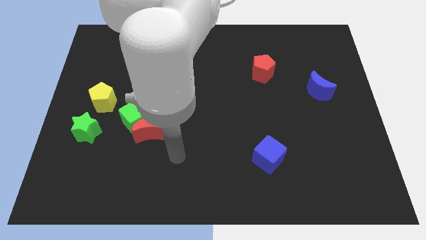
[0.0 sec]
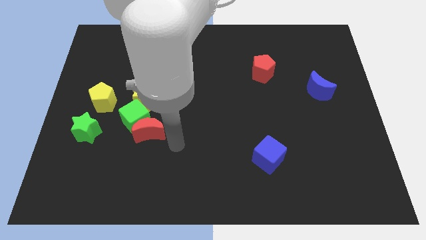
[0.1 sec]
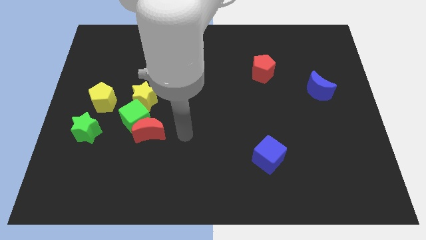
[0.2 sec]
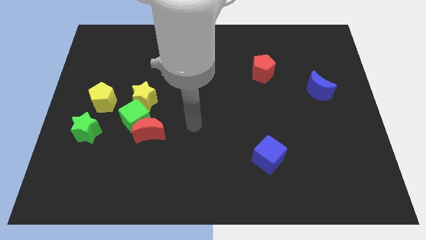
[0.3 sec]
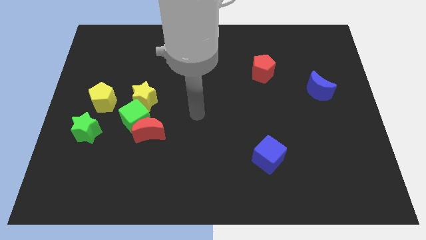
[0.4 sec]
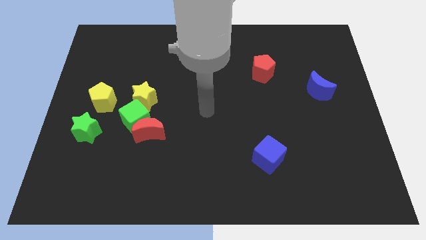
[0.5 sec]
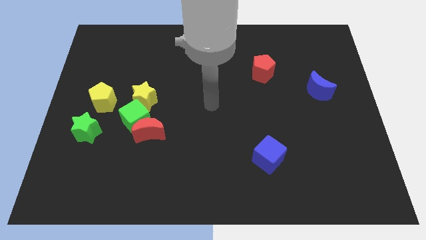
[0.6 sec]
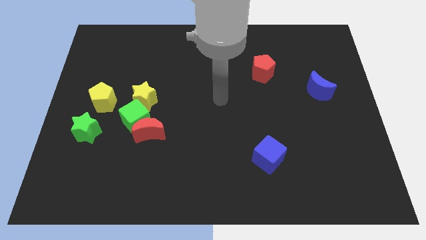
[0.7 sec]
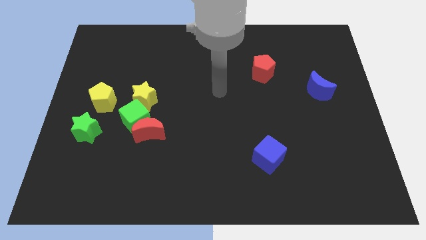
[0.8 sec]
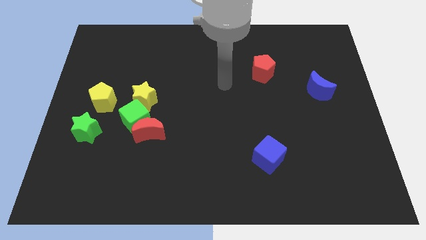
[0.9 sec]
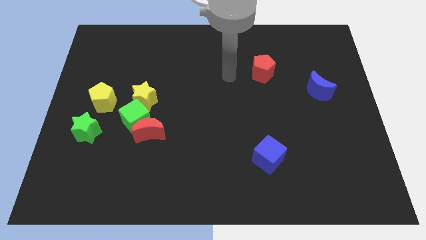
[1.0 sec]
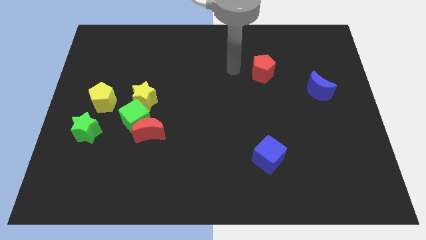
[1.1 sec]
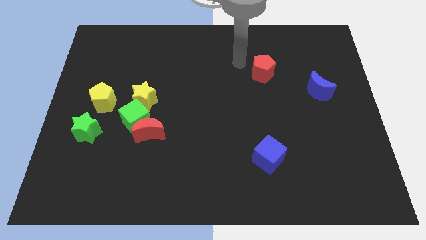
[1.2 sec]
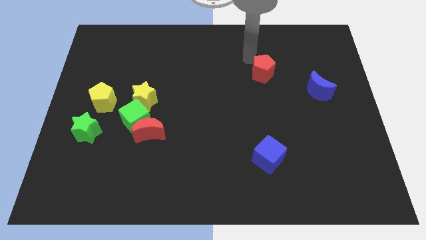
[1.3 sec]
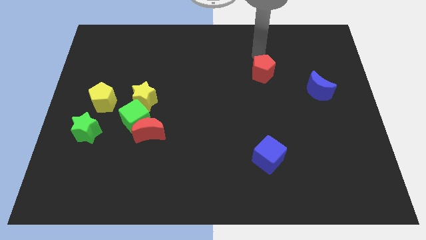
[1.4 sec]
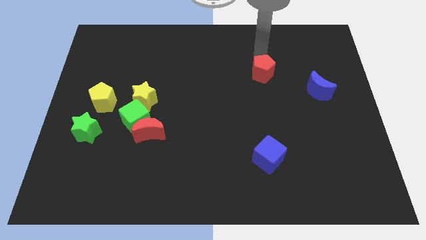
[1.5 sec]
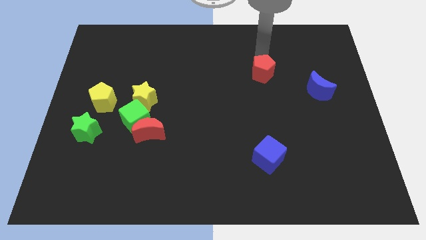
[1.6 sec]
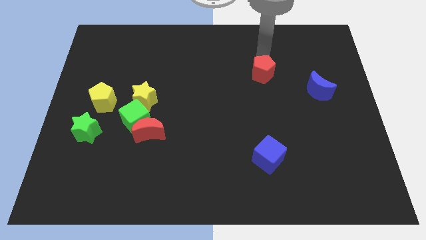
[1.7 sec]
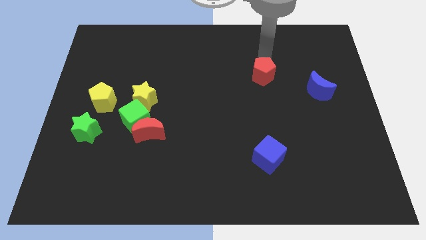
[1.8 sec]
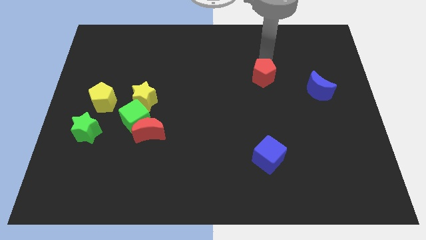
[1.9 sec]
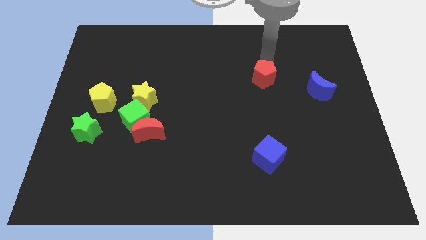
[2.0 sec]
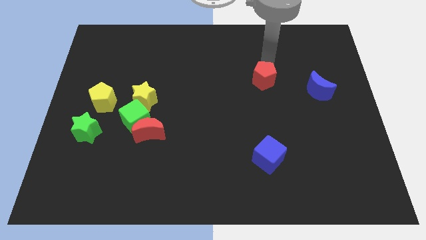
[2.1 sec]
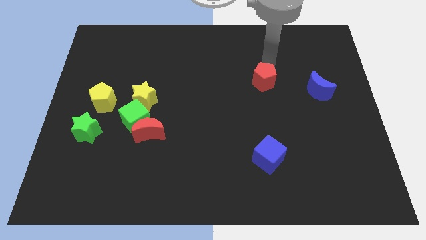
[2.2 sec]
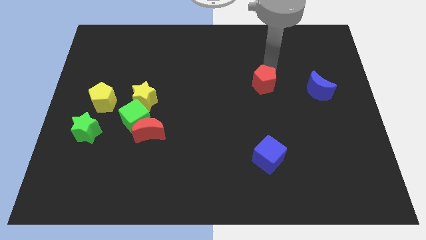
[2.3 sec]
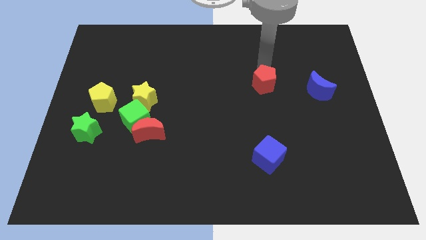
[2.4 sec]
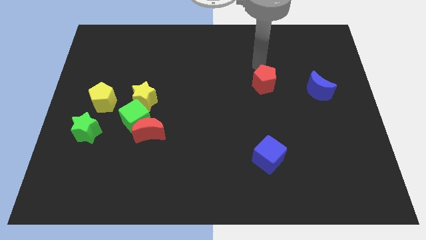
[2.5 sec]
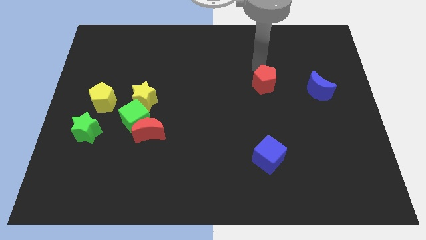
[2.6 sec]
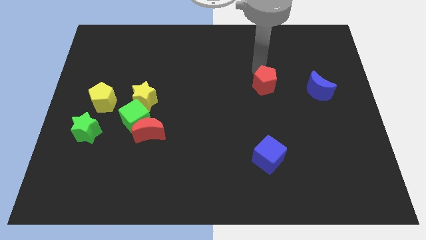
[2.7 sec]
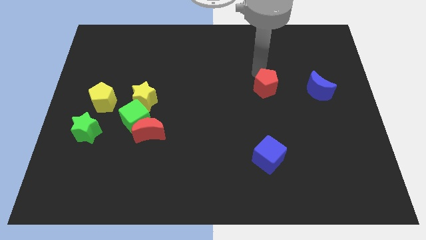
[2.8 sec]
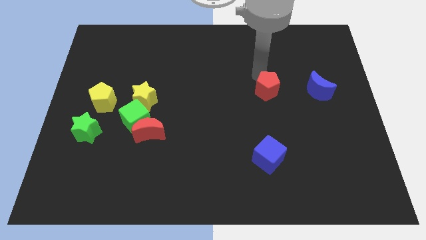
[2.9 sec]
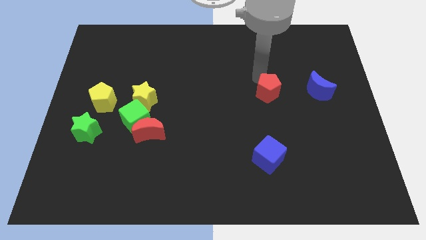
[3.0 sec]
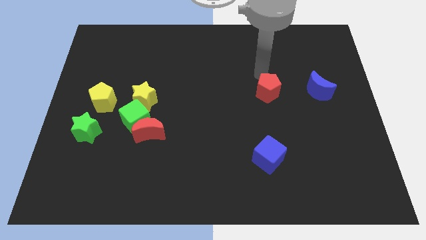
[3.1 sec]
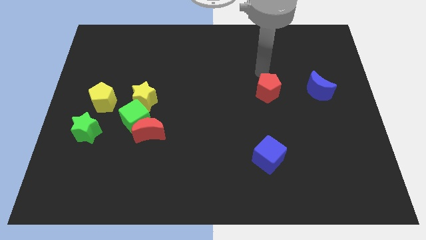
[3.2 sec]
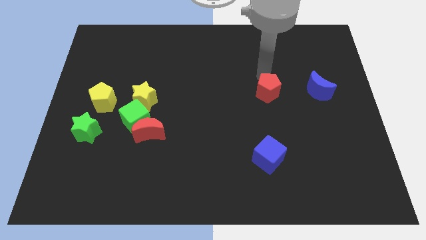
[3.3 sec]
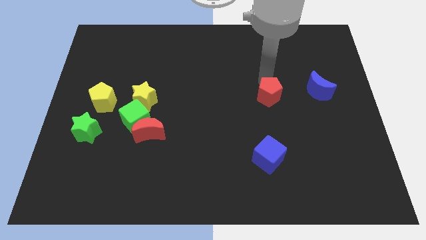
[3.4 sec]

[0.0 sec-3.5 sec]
move the red pentagon slightly down

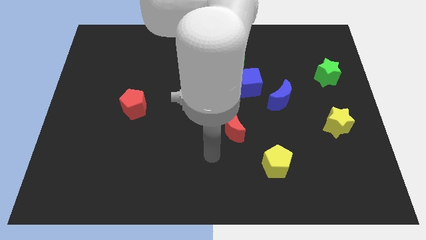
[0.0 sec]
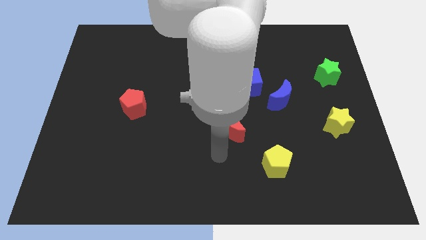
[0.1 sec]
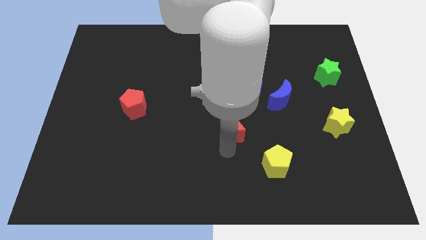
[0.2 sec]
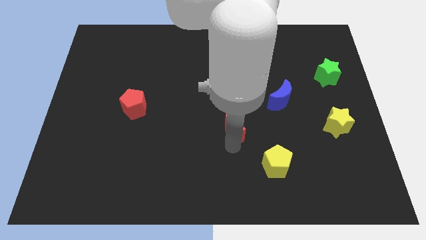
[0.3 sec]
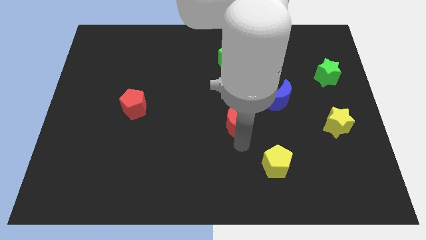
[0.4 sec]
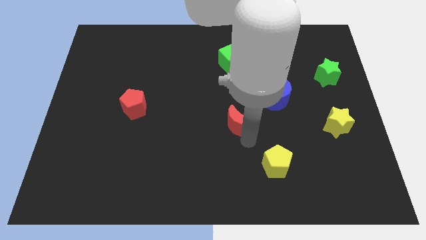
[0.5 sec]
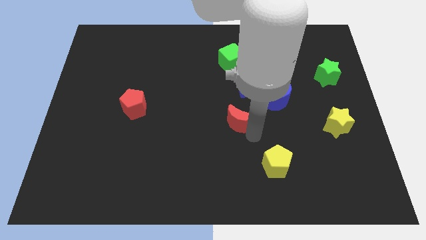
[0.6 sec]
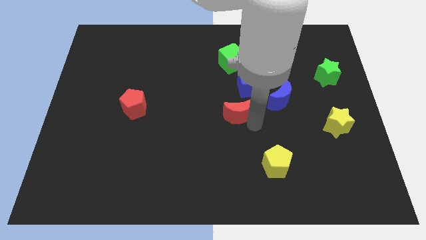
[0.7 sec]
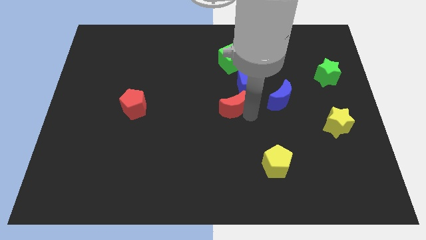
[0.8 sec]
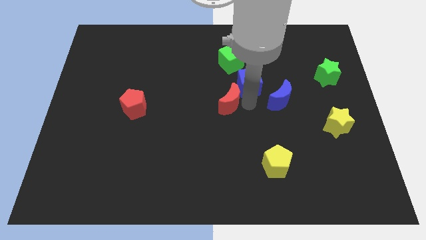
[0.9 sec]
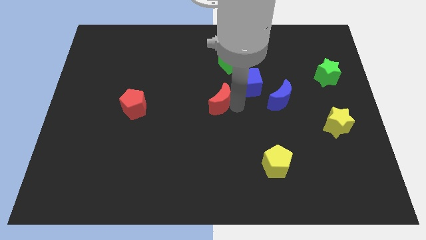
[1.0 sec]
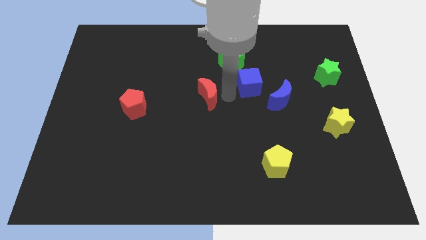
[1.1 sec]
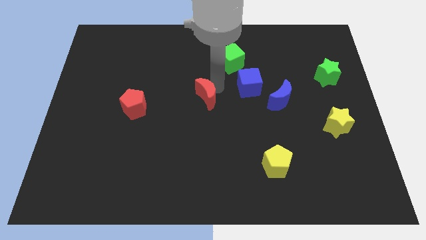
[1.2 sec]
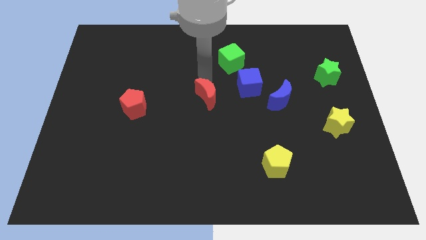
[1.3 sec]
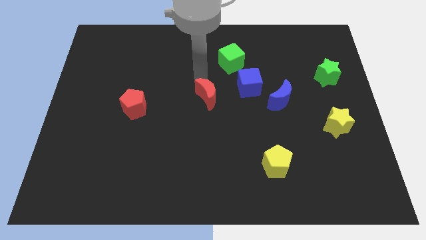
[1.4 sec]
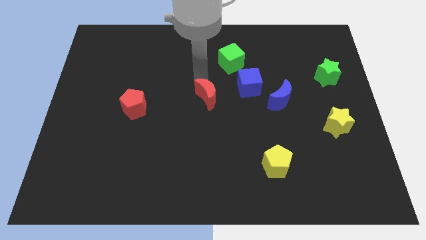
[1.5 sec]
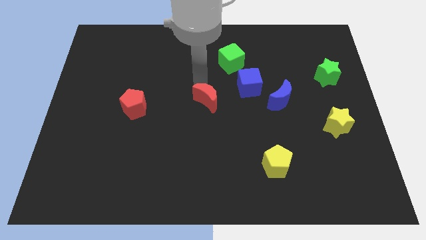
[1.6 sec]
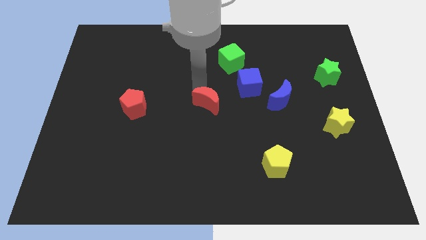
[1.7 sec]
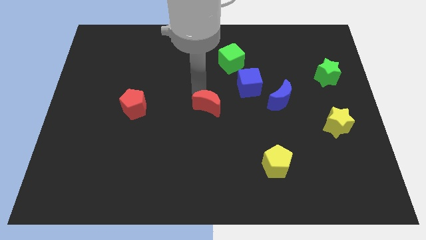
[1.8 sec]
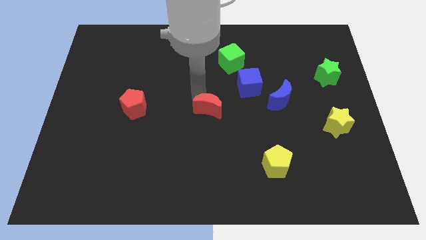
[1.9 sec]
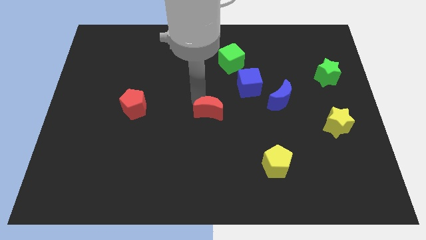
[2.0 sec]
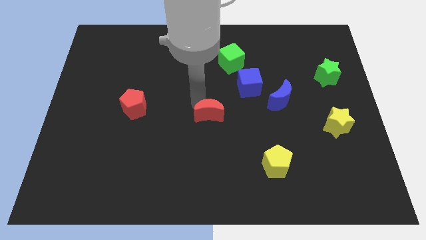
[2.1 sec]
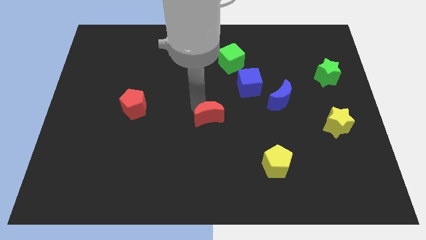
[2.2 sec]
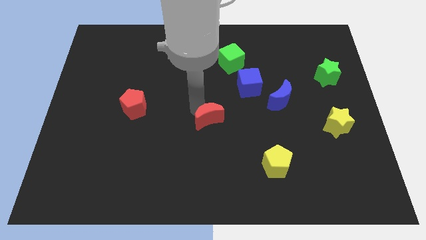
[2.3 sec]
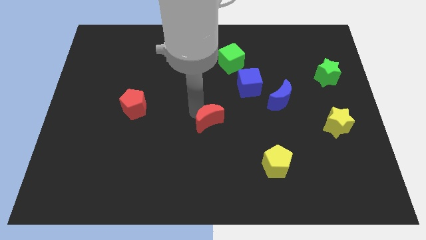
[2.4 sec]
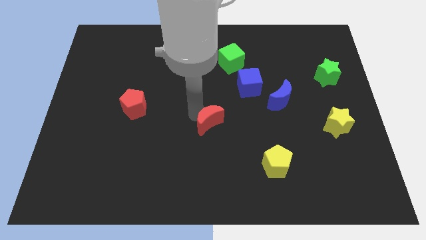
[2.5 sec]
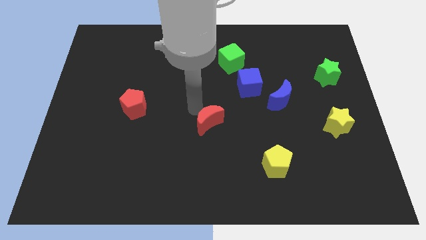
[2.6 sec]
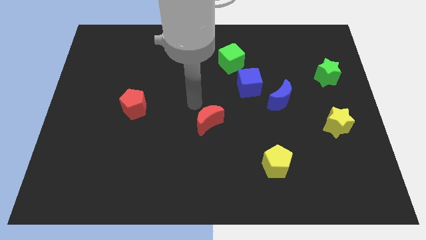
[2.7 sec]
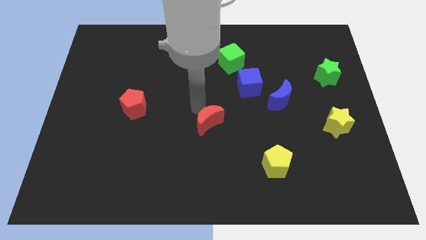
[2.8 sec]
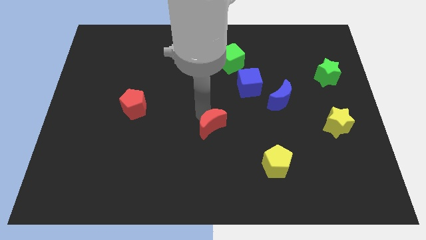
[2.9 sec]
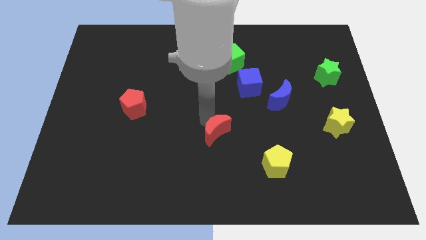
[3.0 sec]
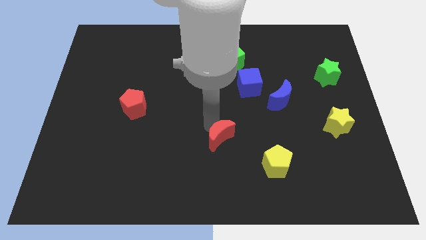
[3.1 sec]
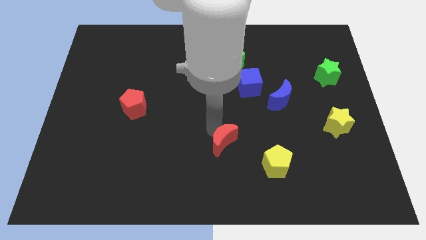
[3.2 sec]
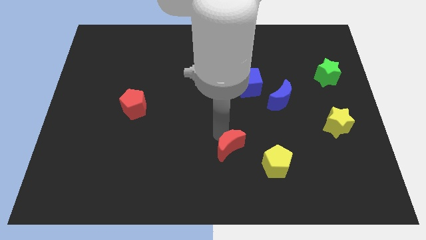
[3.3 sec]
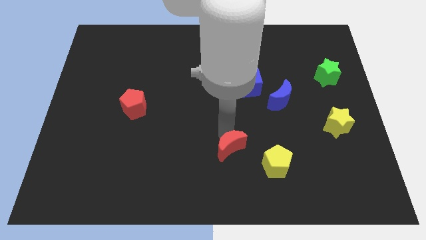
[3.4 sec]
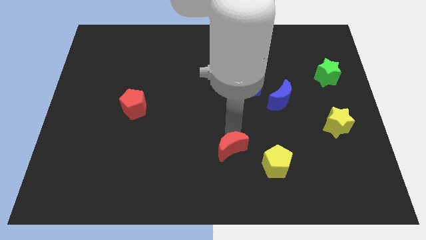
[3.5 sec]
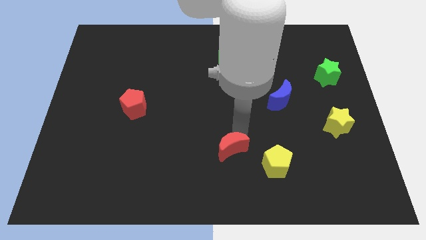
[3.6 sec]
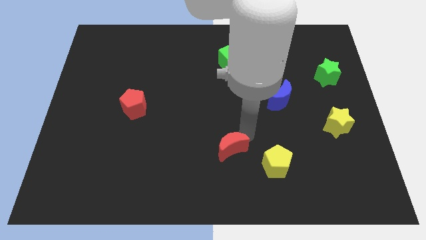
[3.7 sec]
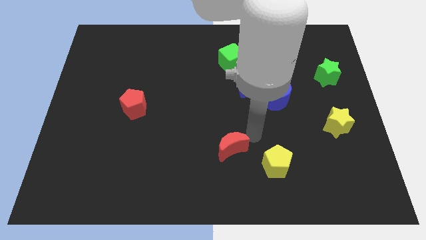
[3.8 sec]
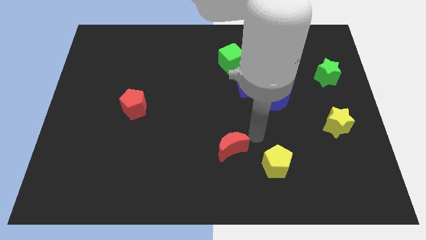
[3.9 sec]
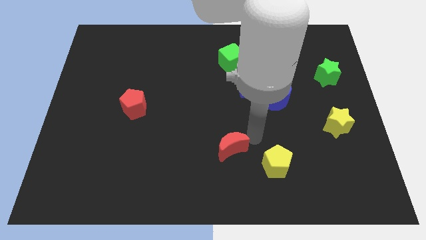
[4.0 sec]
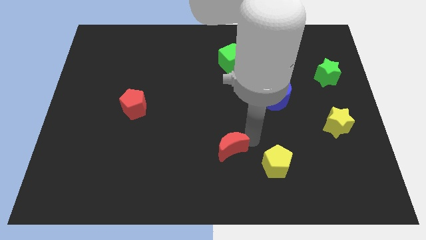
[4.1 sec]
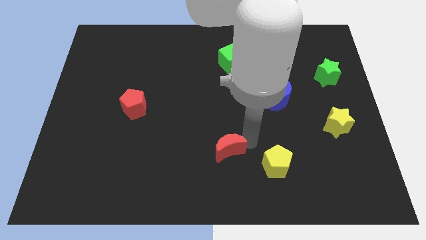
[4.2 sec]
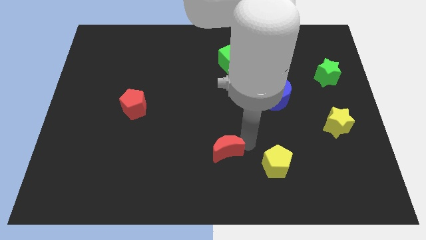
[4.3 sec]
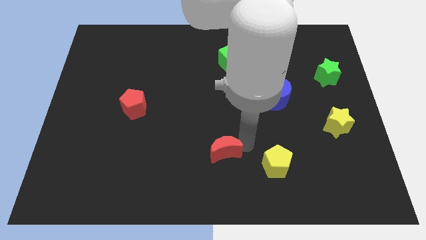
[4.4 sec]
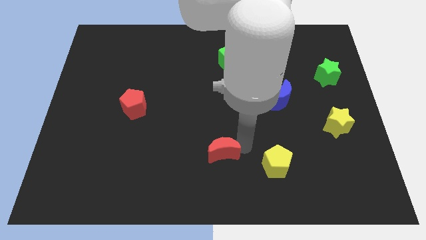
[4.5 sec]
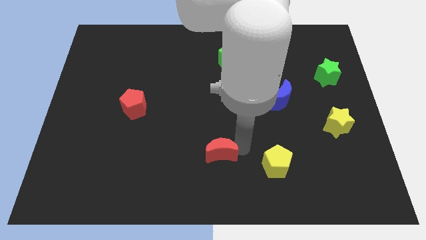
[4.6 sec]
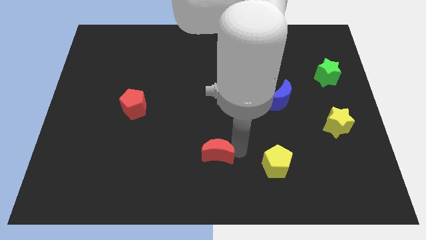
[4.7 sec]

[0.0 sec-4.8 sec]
slightly slide the red moon down and then left

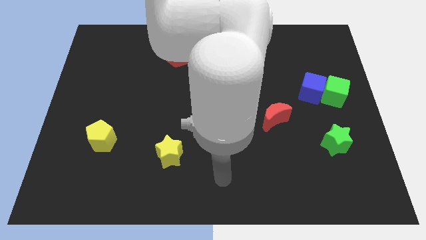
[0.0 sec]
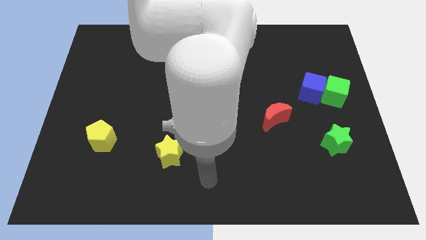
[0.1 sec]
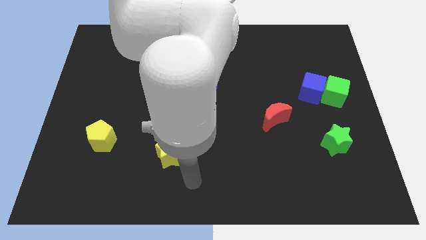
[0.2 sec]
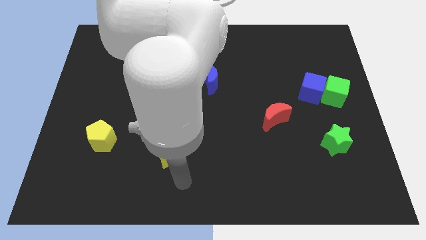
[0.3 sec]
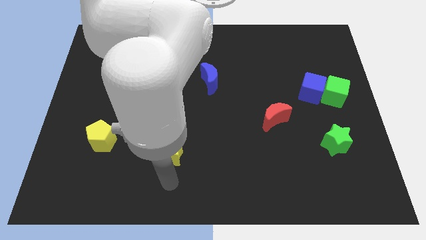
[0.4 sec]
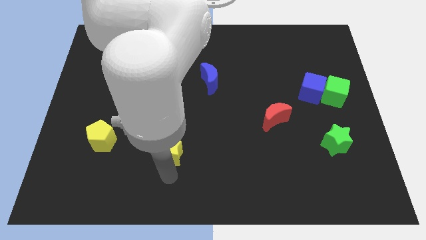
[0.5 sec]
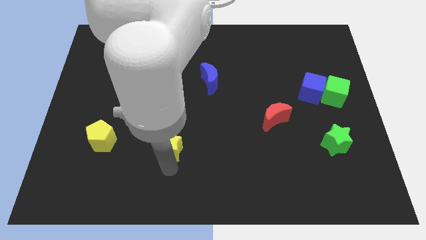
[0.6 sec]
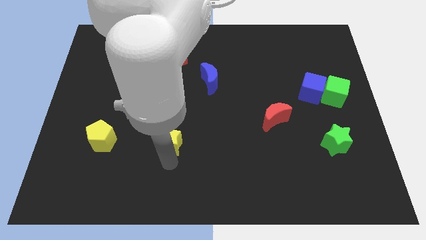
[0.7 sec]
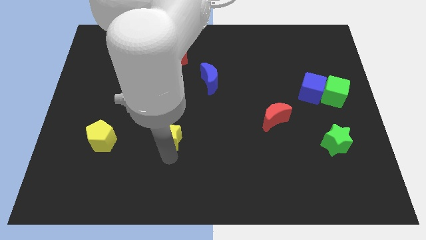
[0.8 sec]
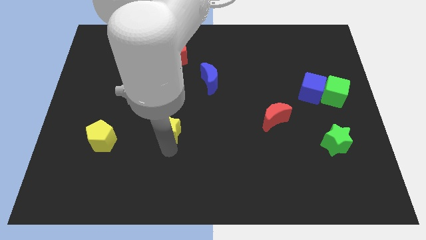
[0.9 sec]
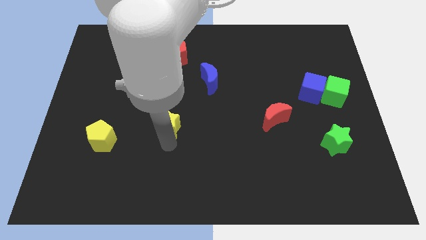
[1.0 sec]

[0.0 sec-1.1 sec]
slide the yellow star upwards somewhat
